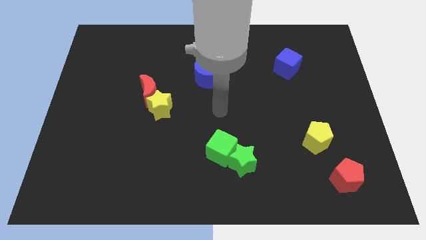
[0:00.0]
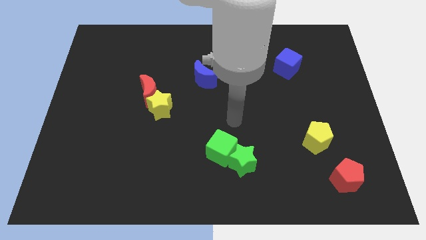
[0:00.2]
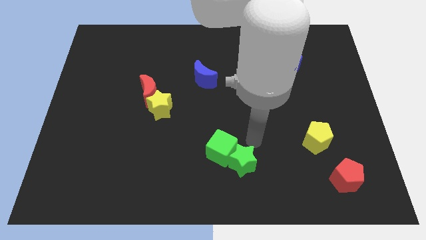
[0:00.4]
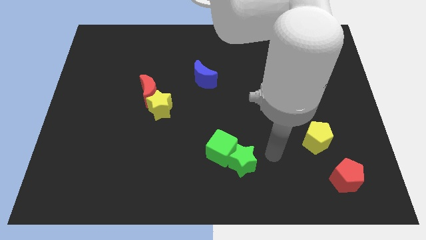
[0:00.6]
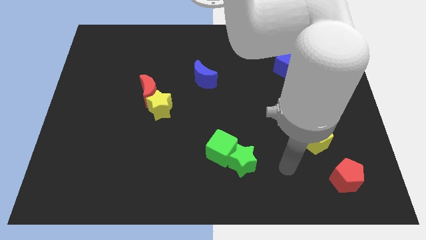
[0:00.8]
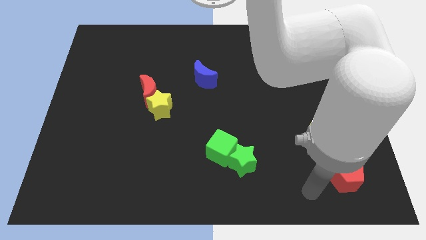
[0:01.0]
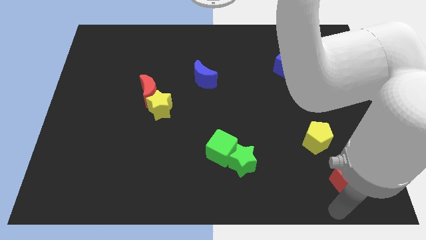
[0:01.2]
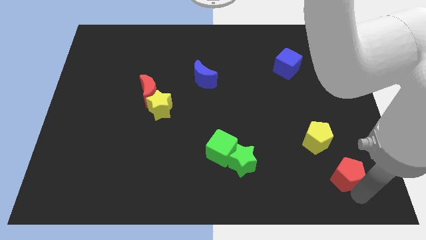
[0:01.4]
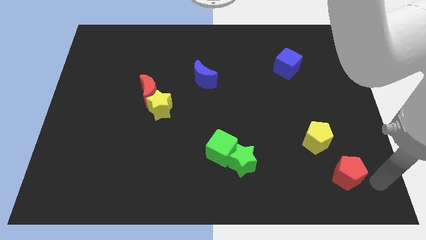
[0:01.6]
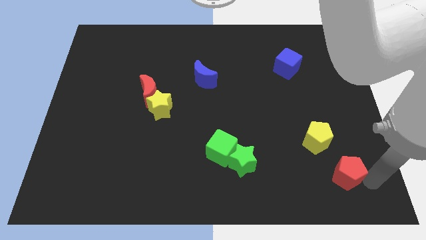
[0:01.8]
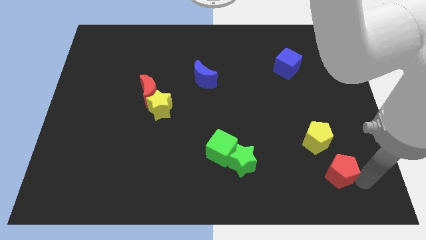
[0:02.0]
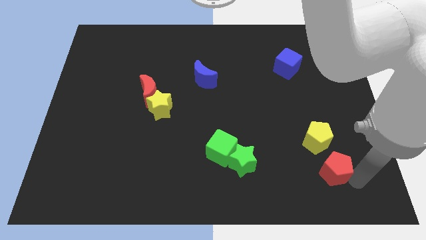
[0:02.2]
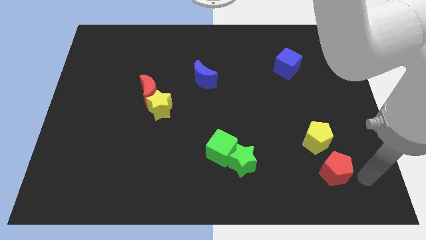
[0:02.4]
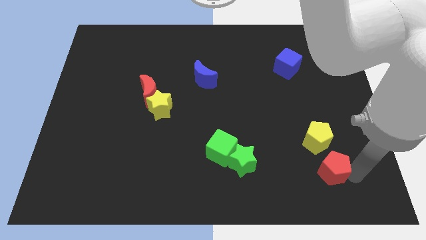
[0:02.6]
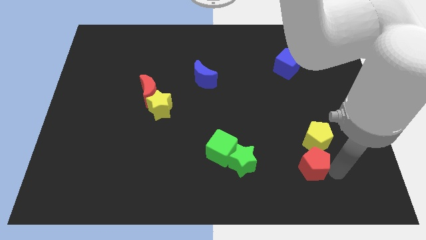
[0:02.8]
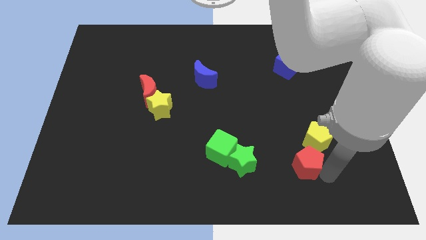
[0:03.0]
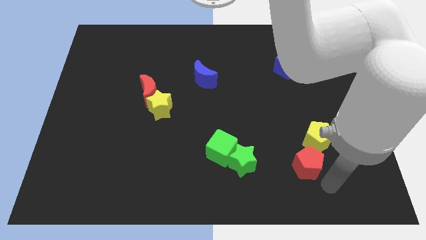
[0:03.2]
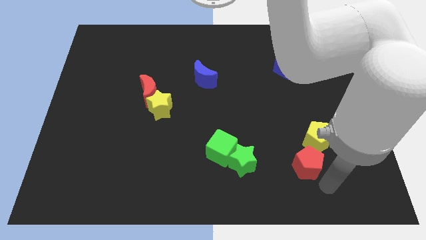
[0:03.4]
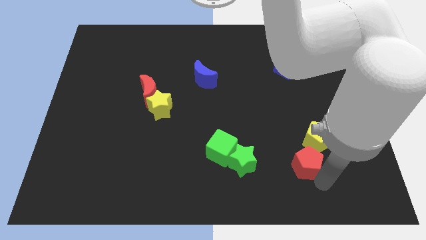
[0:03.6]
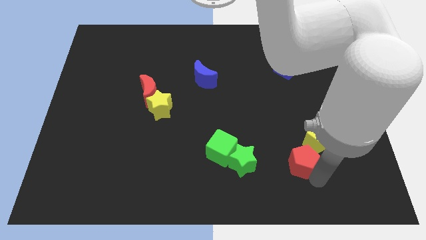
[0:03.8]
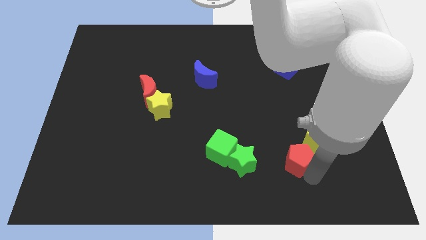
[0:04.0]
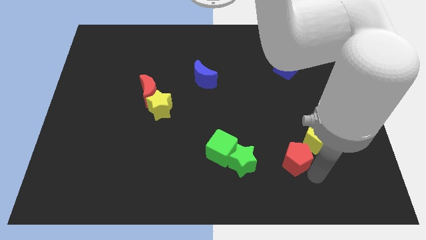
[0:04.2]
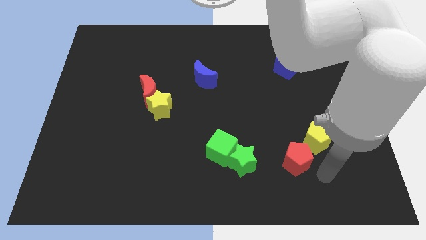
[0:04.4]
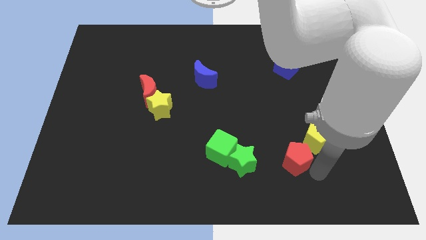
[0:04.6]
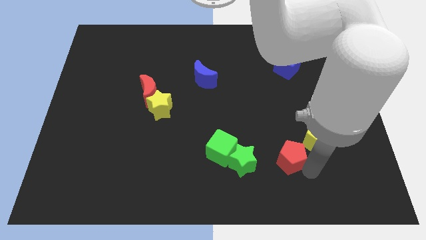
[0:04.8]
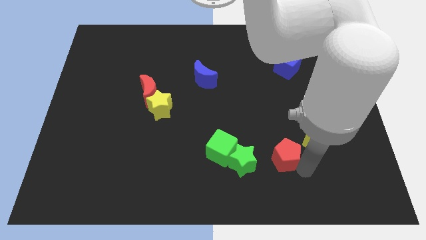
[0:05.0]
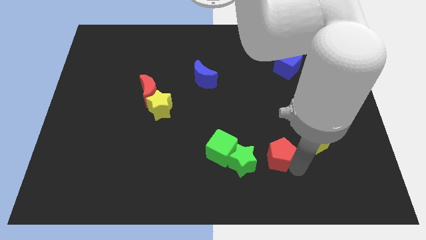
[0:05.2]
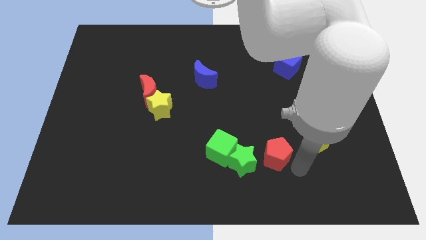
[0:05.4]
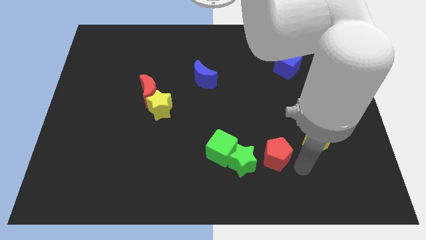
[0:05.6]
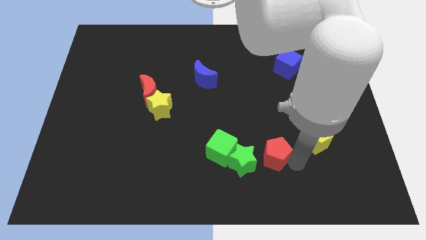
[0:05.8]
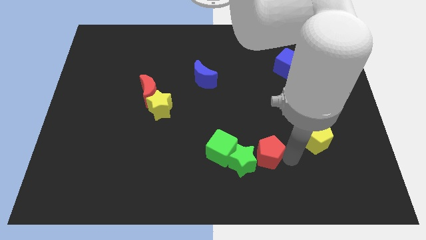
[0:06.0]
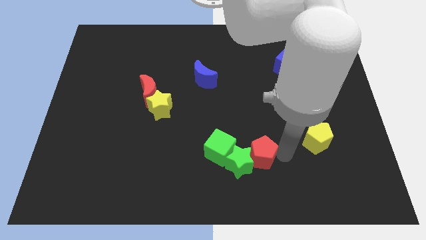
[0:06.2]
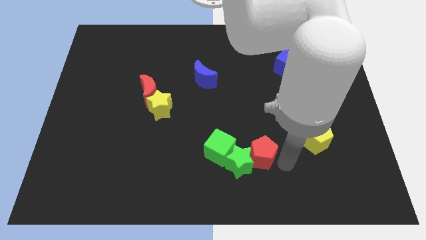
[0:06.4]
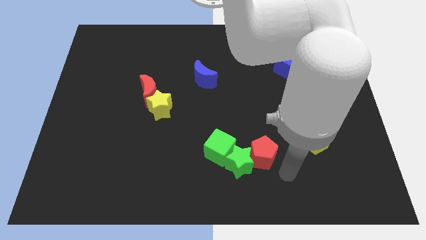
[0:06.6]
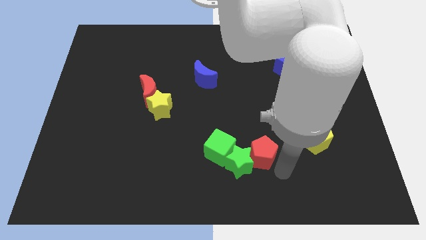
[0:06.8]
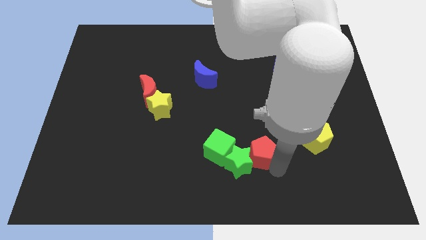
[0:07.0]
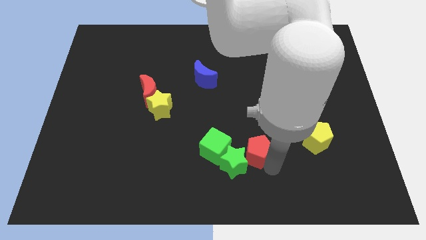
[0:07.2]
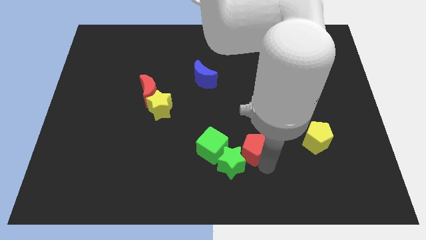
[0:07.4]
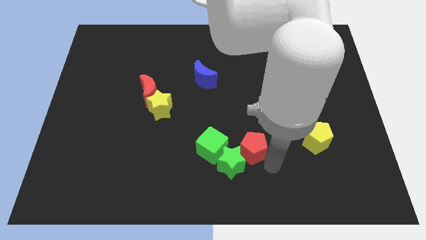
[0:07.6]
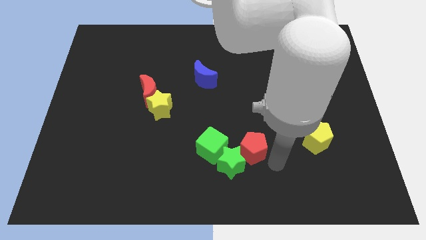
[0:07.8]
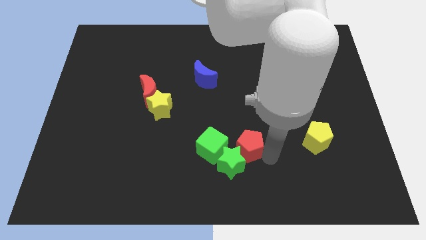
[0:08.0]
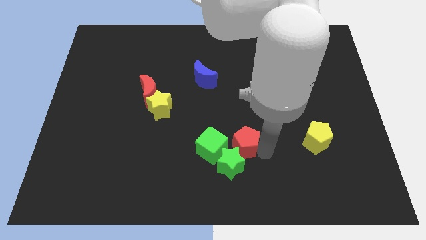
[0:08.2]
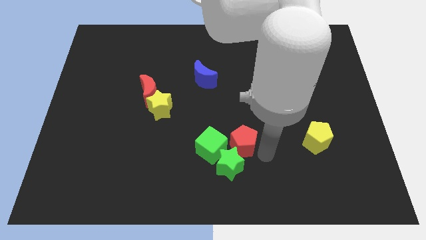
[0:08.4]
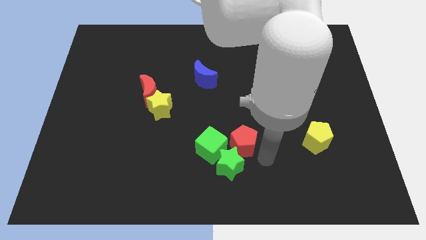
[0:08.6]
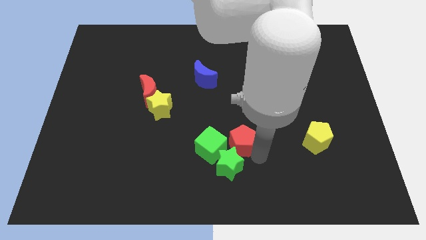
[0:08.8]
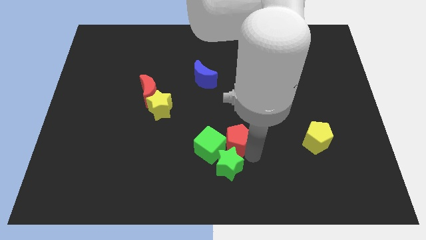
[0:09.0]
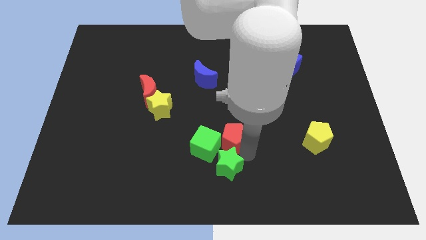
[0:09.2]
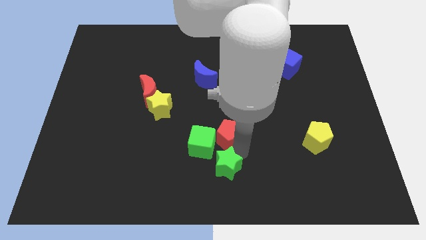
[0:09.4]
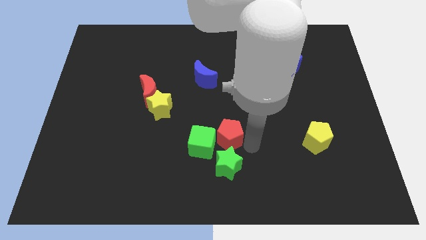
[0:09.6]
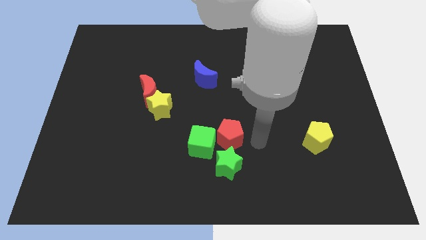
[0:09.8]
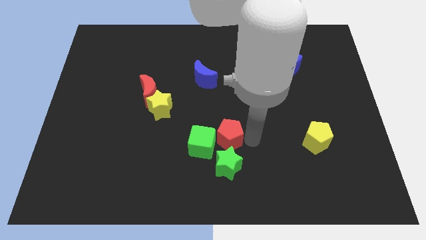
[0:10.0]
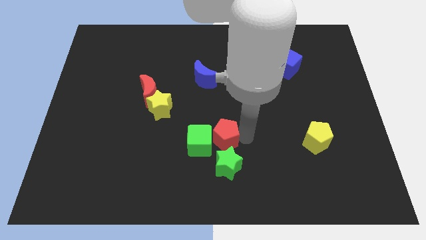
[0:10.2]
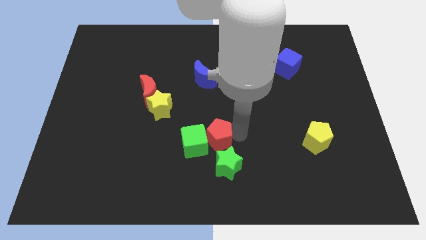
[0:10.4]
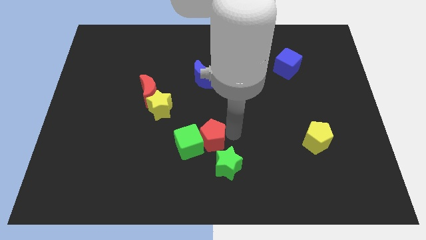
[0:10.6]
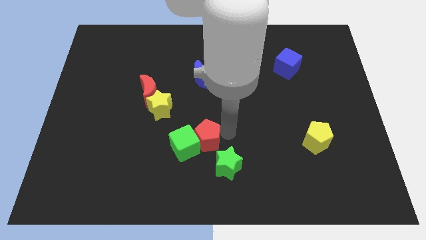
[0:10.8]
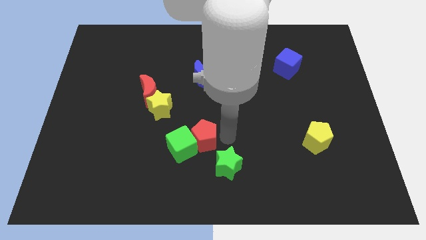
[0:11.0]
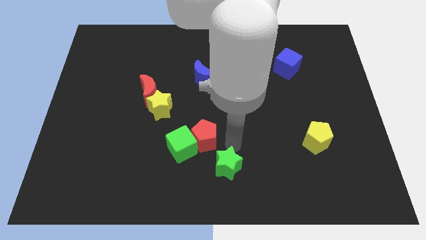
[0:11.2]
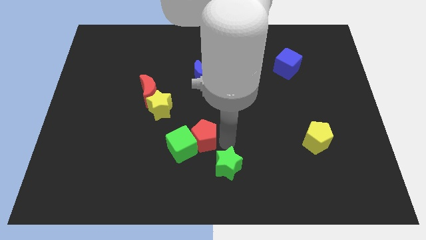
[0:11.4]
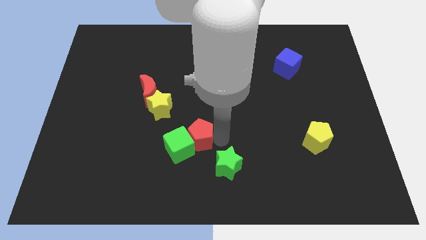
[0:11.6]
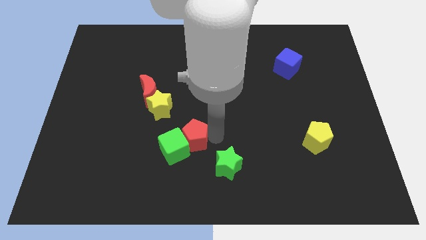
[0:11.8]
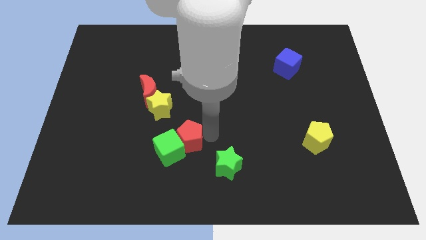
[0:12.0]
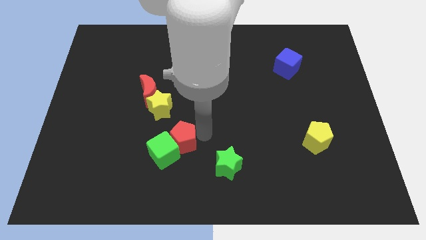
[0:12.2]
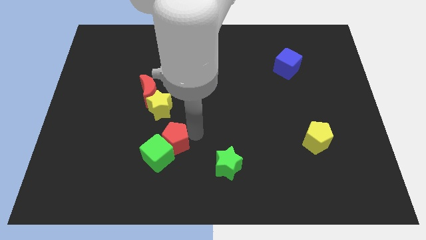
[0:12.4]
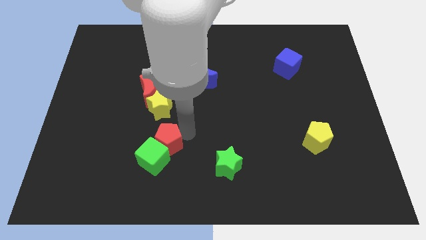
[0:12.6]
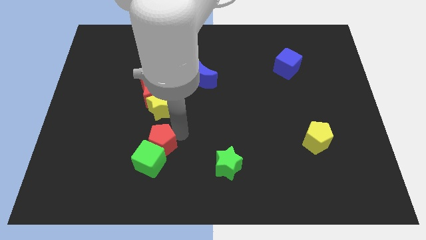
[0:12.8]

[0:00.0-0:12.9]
move the red pentagon to the bottom of the red moon

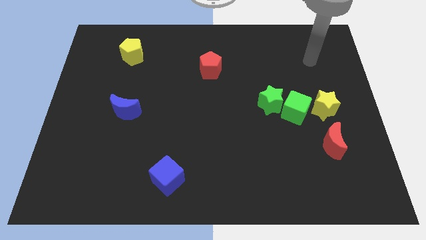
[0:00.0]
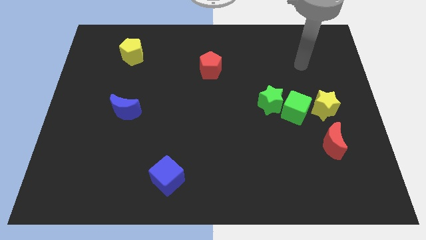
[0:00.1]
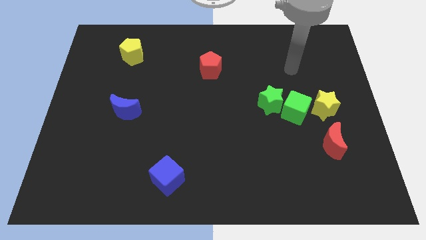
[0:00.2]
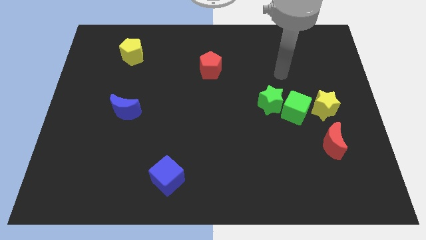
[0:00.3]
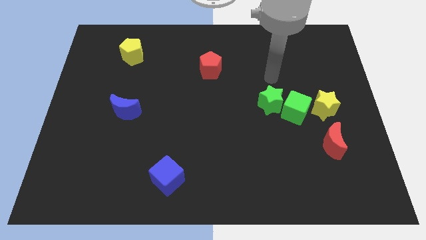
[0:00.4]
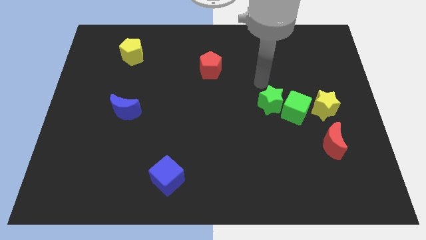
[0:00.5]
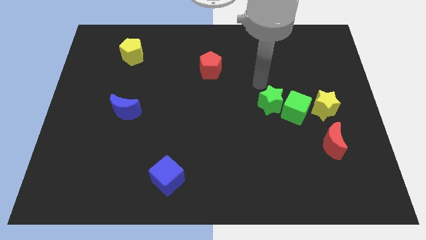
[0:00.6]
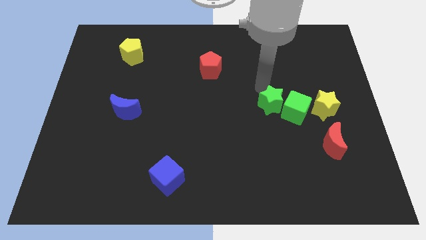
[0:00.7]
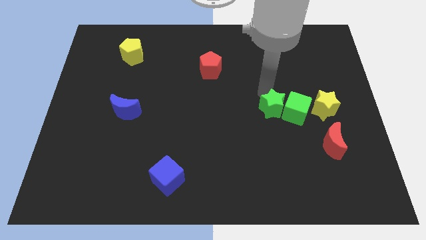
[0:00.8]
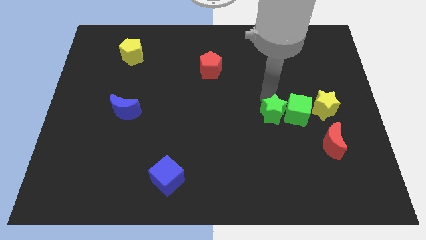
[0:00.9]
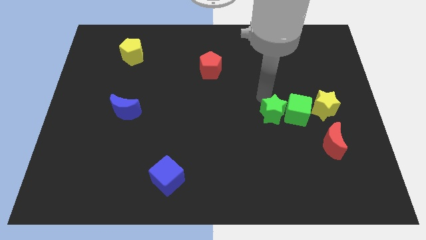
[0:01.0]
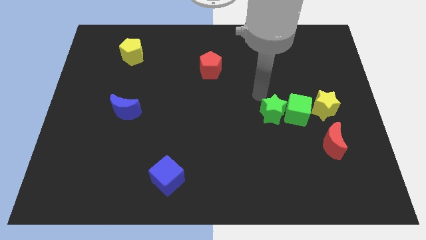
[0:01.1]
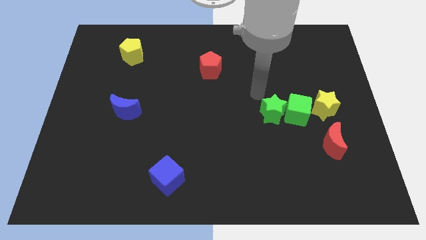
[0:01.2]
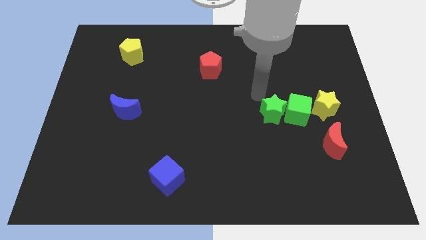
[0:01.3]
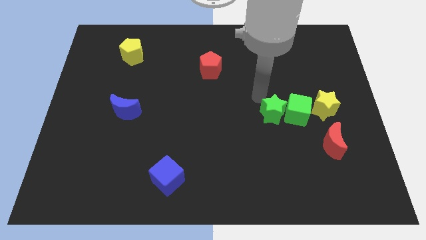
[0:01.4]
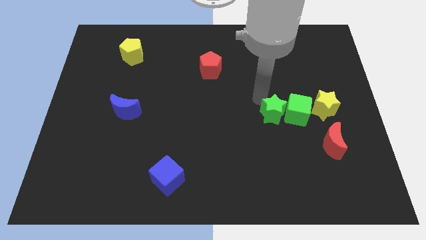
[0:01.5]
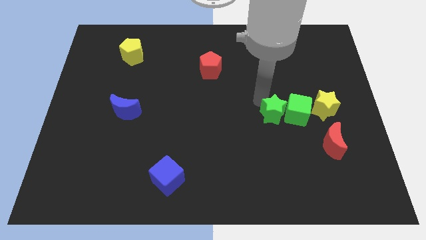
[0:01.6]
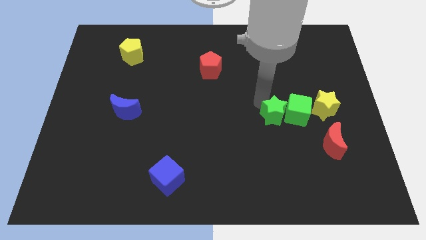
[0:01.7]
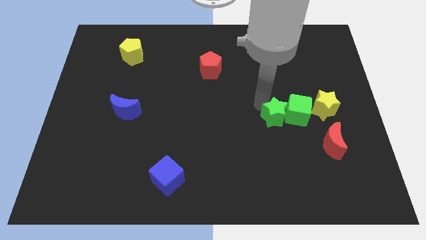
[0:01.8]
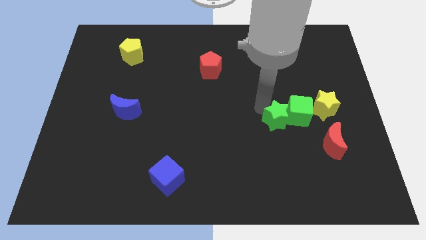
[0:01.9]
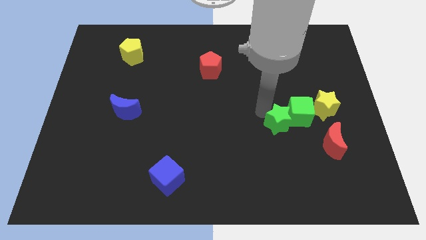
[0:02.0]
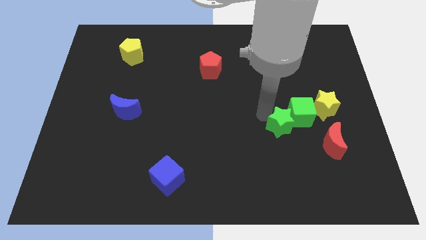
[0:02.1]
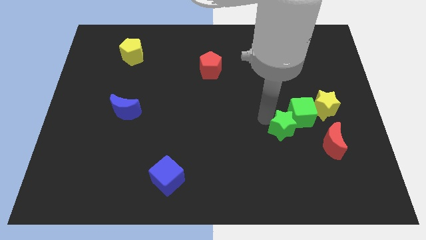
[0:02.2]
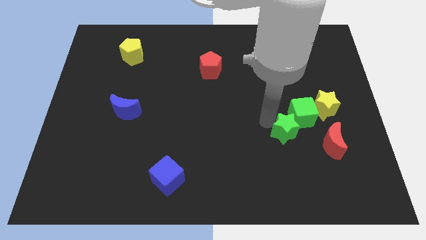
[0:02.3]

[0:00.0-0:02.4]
put the green star to the bottom of the green cube
